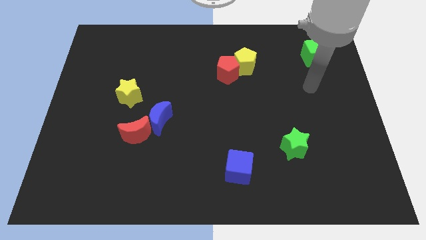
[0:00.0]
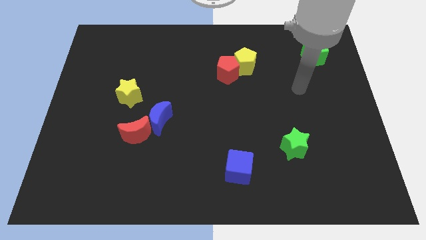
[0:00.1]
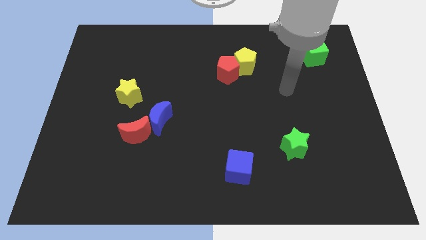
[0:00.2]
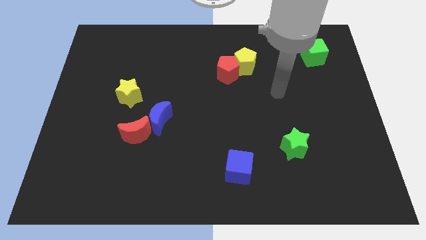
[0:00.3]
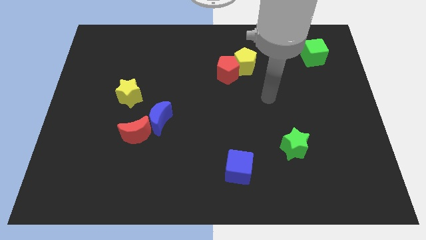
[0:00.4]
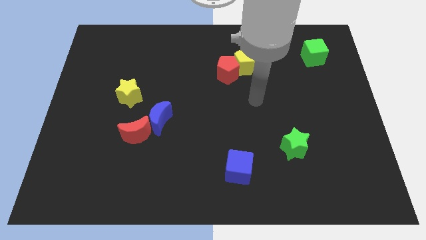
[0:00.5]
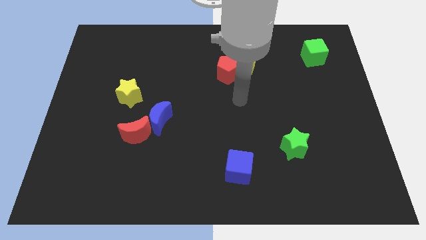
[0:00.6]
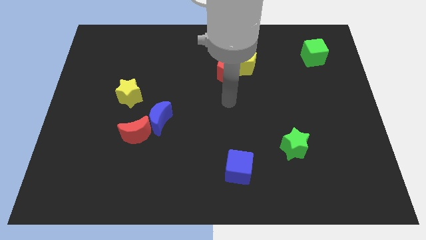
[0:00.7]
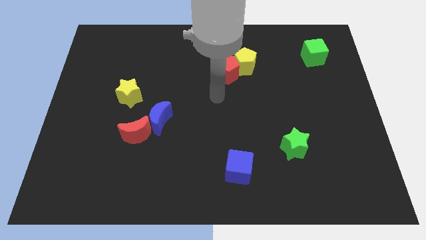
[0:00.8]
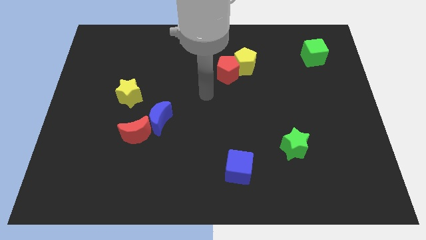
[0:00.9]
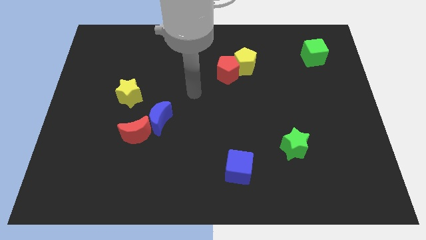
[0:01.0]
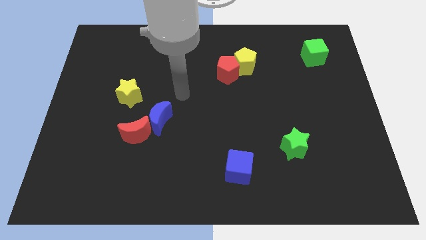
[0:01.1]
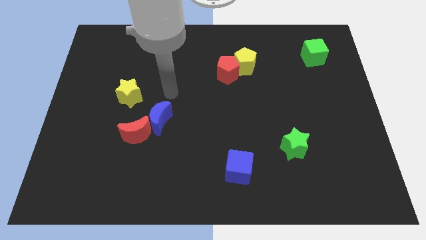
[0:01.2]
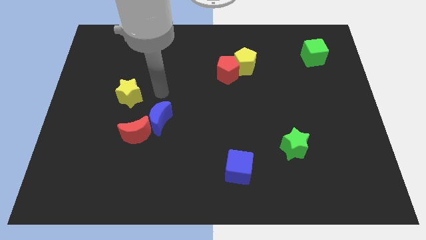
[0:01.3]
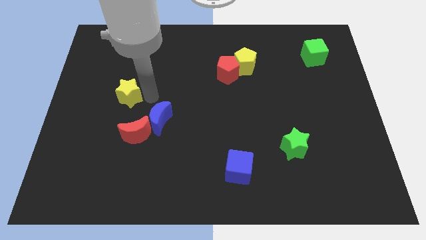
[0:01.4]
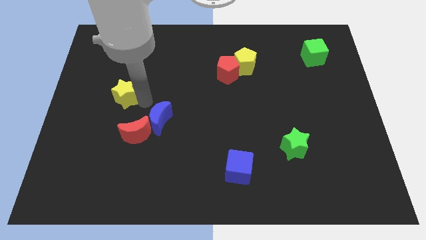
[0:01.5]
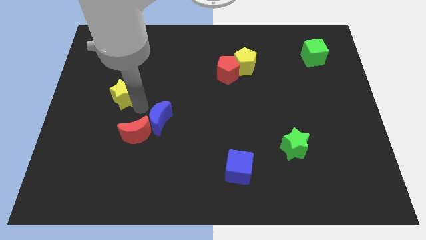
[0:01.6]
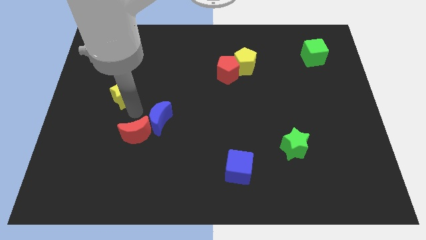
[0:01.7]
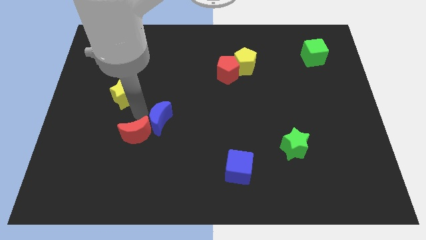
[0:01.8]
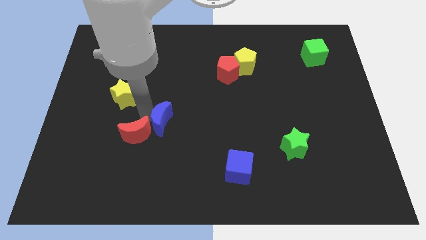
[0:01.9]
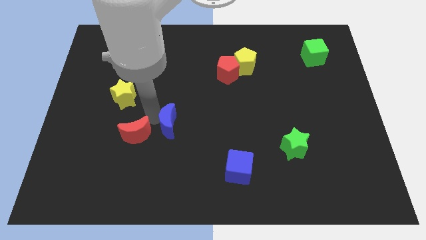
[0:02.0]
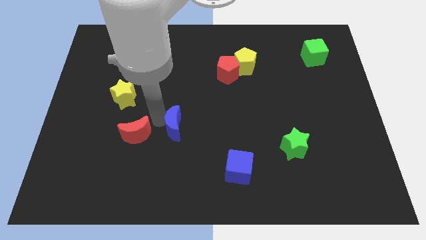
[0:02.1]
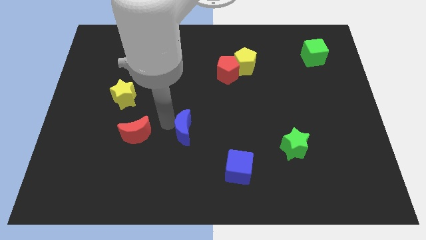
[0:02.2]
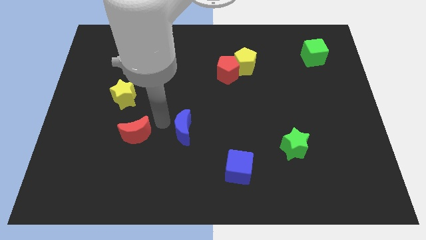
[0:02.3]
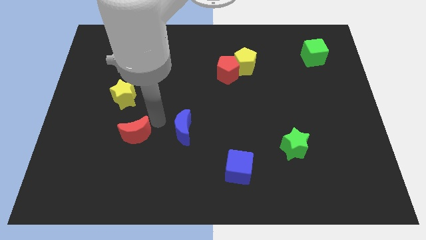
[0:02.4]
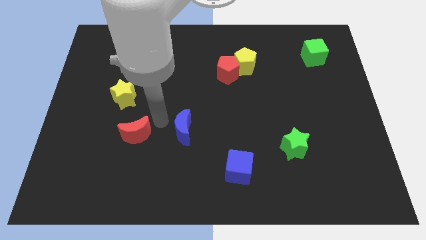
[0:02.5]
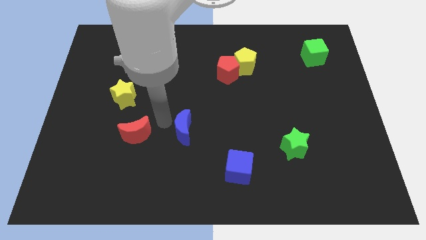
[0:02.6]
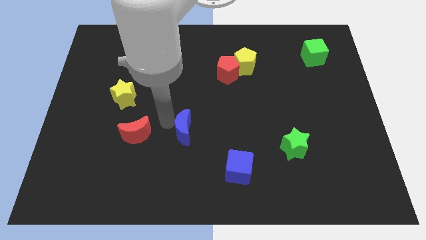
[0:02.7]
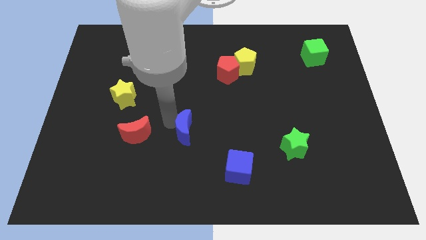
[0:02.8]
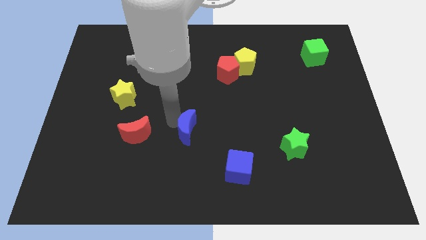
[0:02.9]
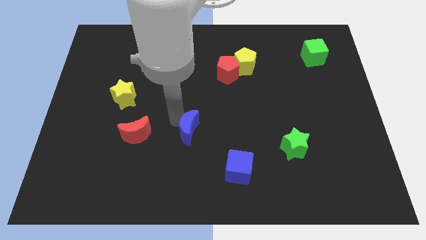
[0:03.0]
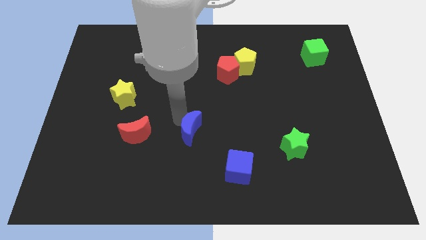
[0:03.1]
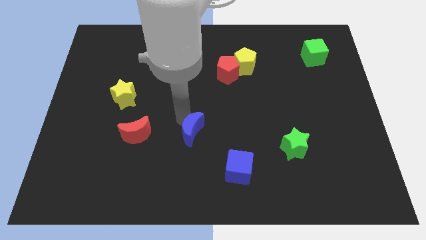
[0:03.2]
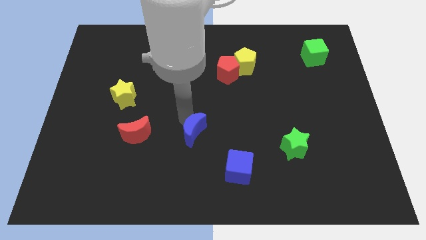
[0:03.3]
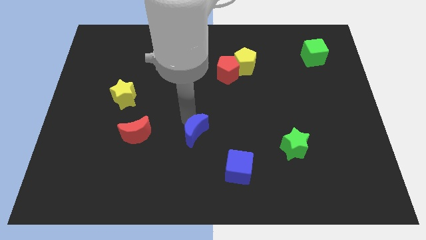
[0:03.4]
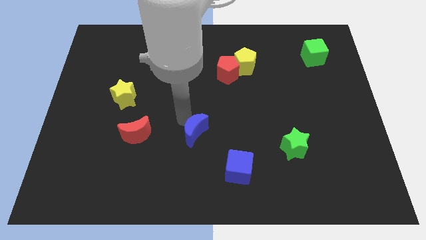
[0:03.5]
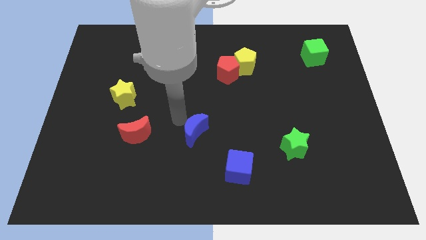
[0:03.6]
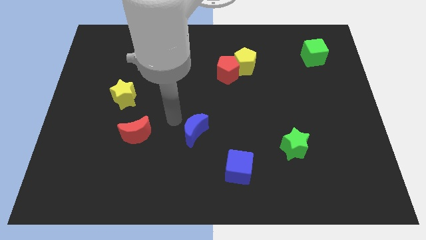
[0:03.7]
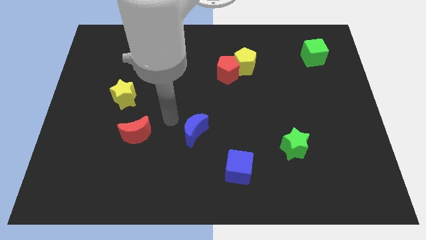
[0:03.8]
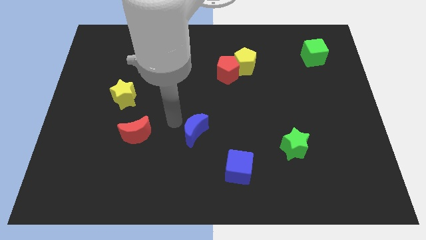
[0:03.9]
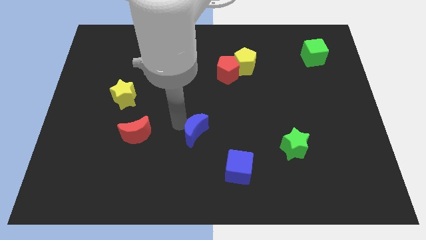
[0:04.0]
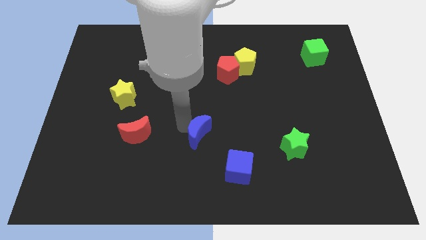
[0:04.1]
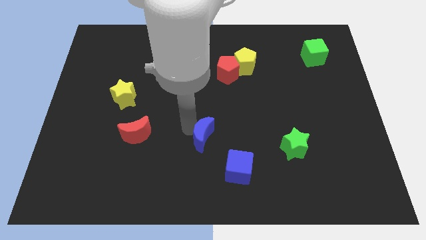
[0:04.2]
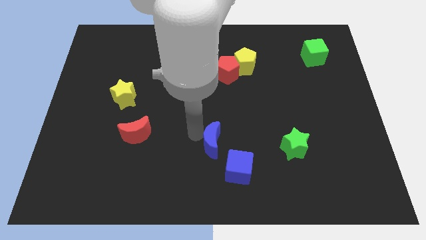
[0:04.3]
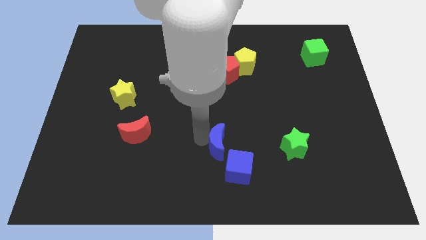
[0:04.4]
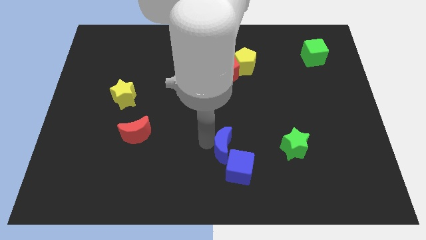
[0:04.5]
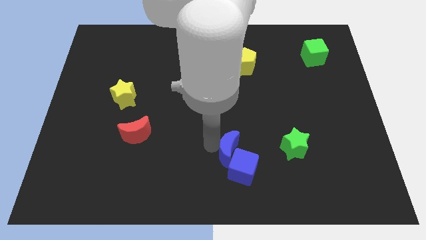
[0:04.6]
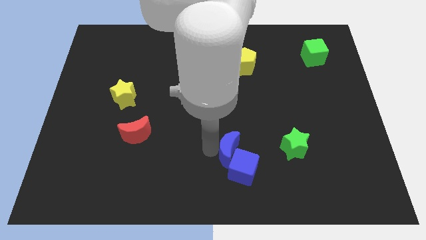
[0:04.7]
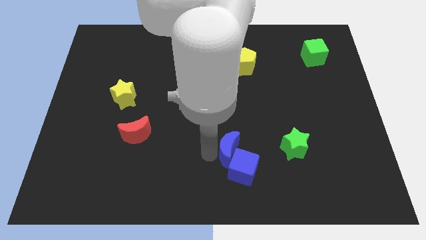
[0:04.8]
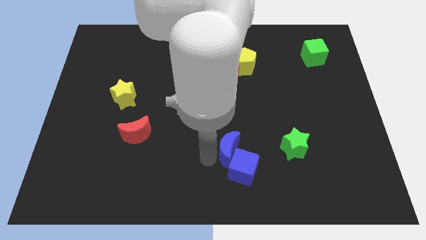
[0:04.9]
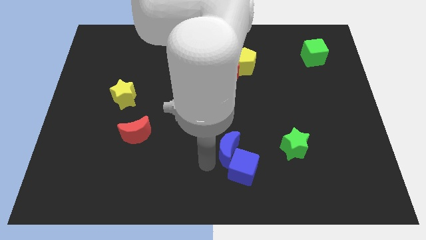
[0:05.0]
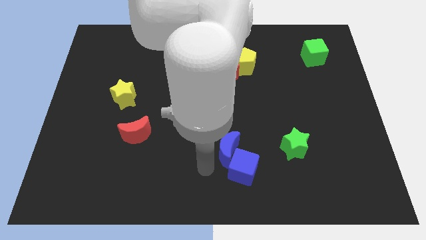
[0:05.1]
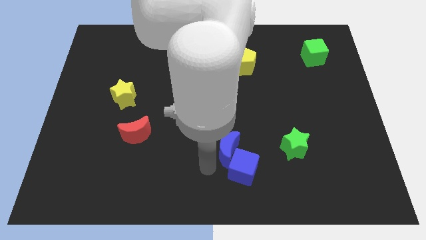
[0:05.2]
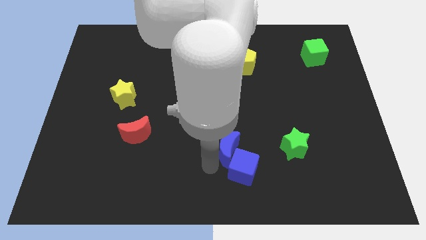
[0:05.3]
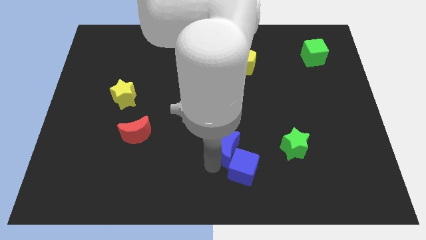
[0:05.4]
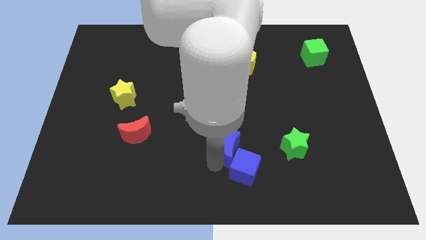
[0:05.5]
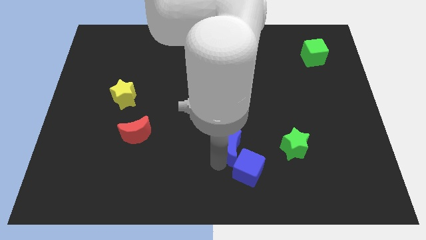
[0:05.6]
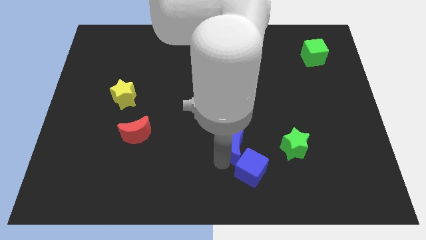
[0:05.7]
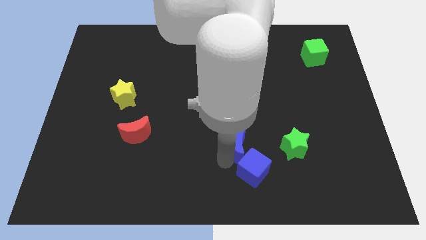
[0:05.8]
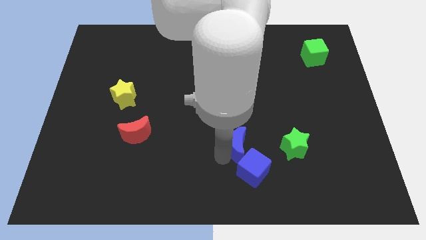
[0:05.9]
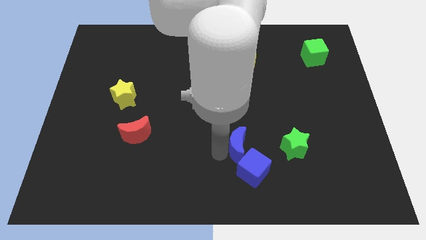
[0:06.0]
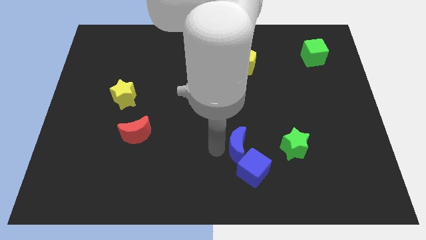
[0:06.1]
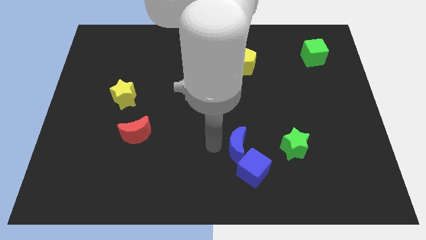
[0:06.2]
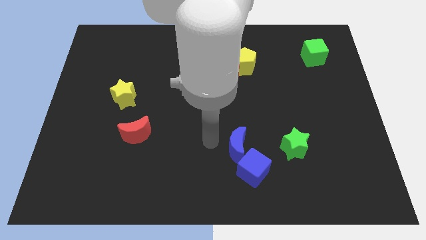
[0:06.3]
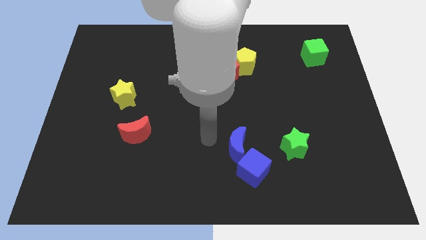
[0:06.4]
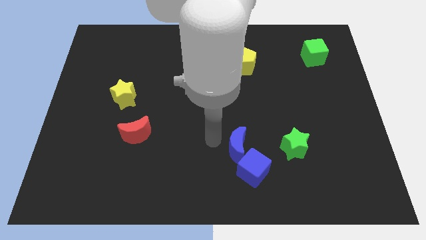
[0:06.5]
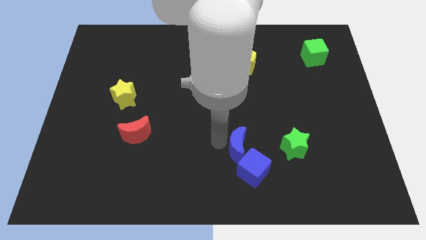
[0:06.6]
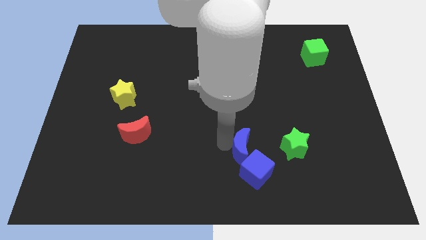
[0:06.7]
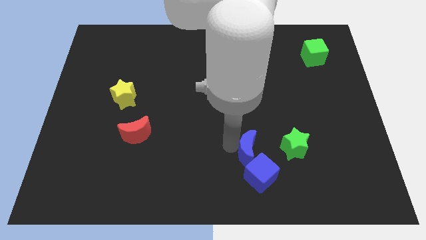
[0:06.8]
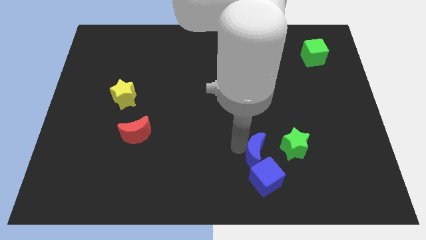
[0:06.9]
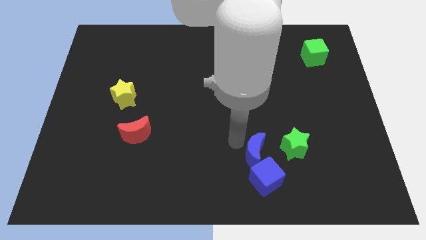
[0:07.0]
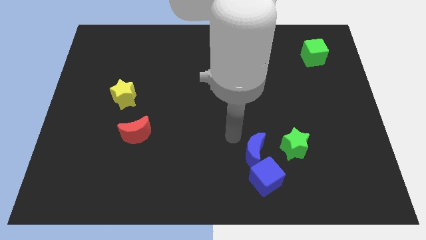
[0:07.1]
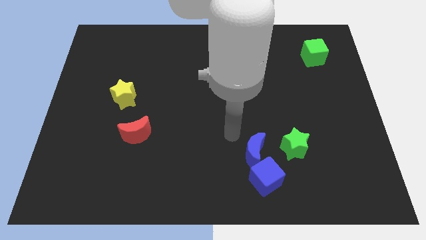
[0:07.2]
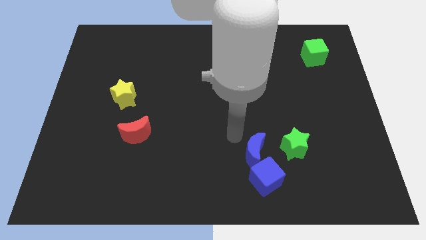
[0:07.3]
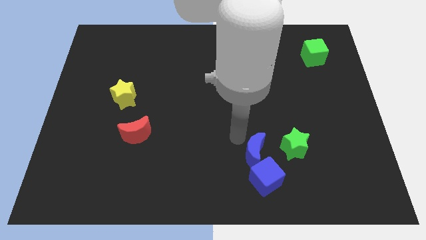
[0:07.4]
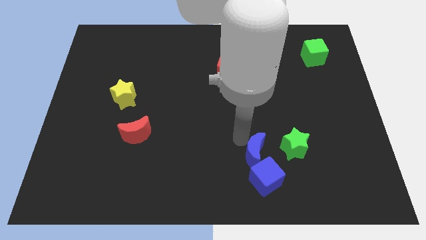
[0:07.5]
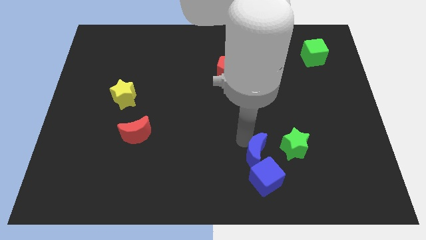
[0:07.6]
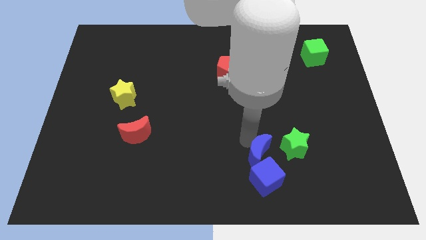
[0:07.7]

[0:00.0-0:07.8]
move the blue moon diagonally down and to the left of the green star
